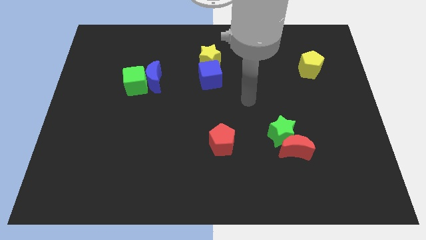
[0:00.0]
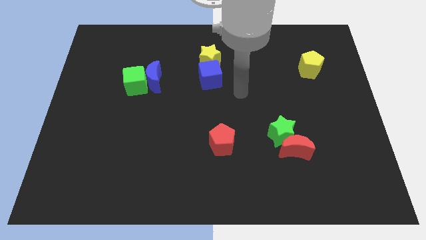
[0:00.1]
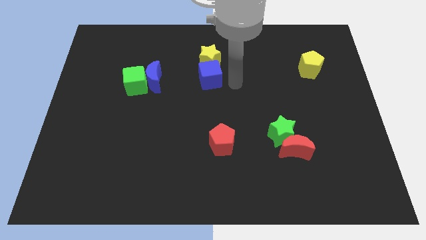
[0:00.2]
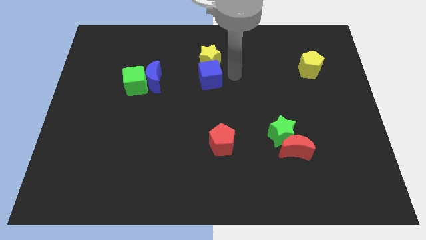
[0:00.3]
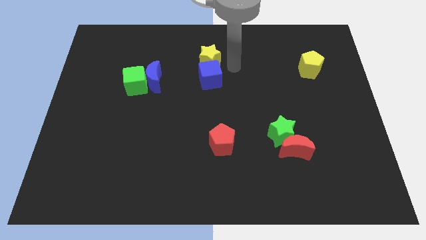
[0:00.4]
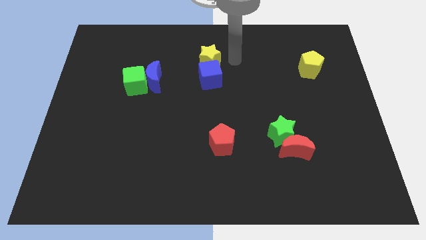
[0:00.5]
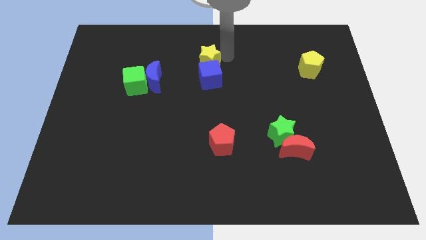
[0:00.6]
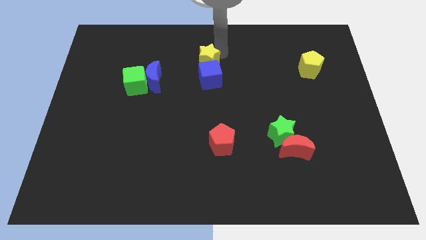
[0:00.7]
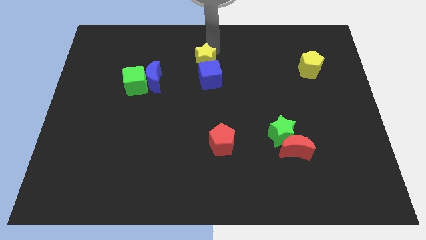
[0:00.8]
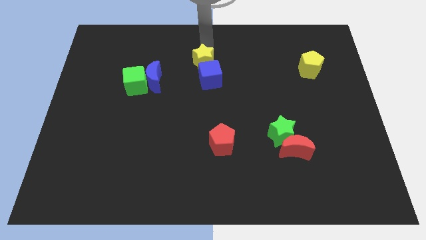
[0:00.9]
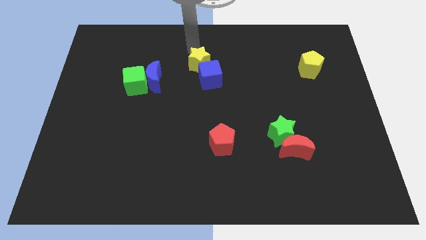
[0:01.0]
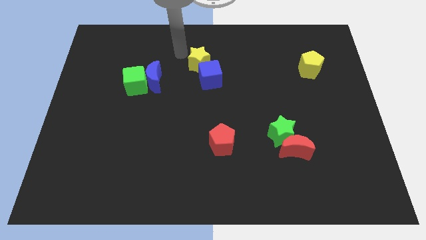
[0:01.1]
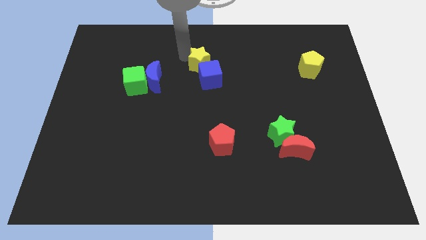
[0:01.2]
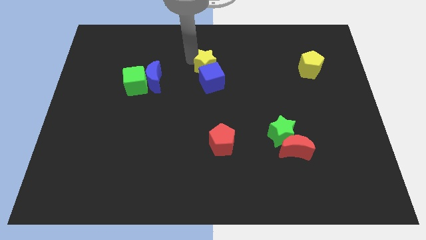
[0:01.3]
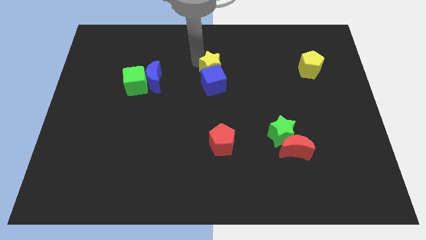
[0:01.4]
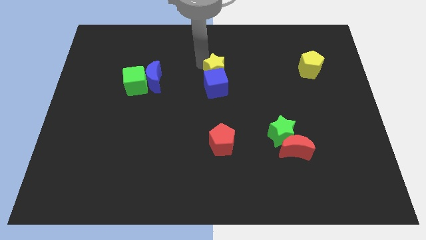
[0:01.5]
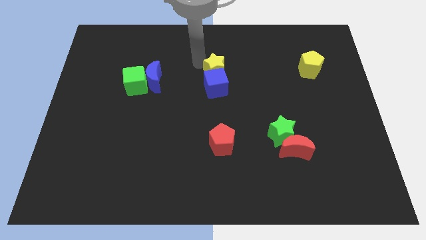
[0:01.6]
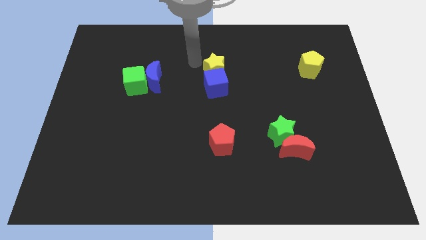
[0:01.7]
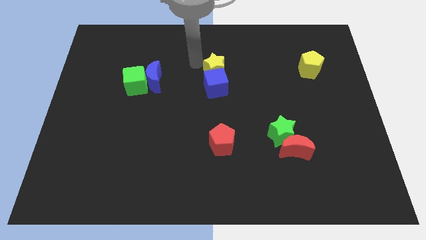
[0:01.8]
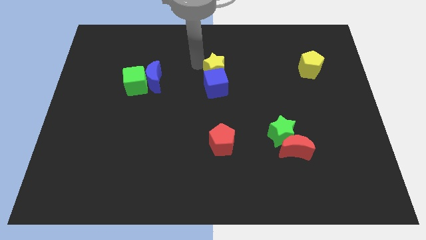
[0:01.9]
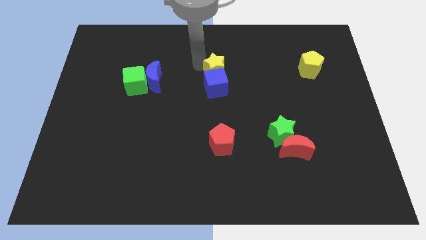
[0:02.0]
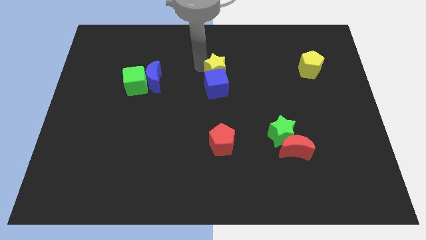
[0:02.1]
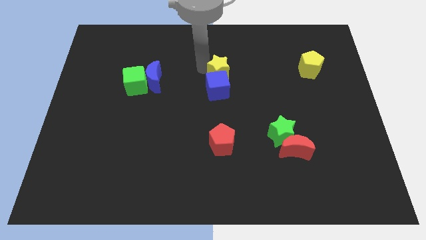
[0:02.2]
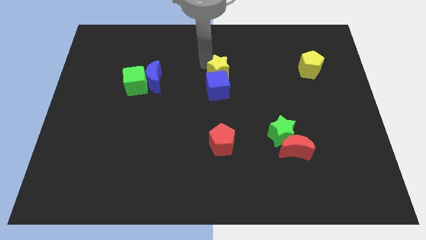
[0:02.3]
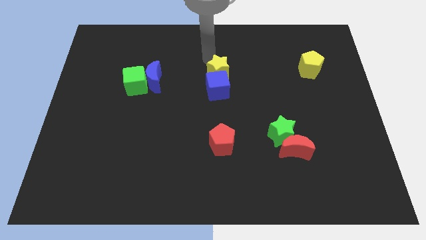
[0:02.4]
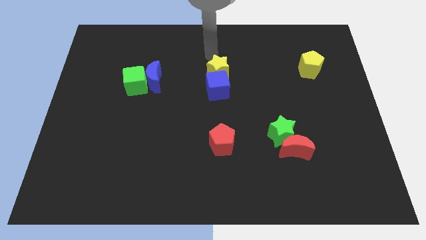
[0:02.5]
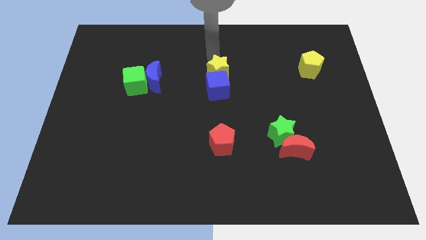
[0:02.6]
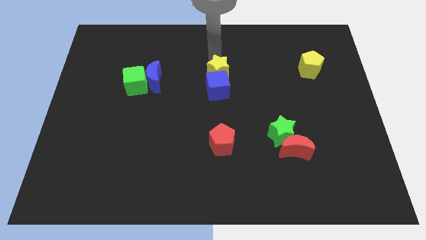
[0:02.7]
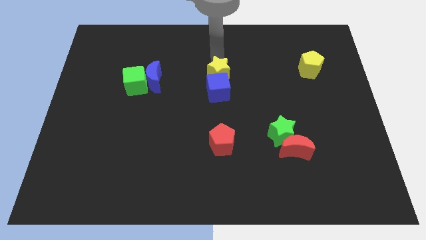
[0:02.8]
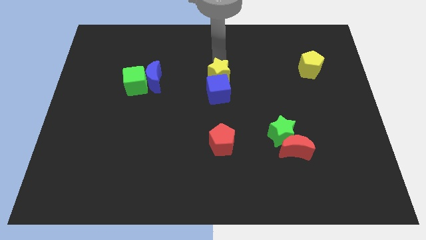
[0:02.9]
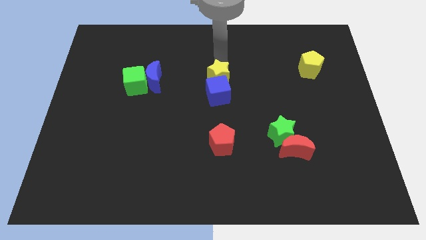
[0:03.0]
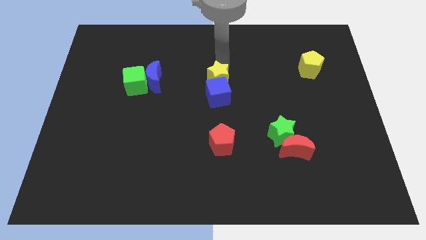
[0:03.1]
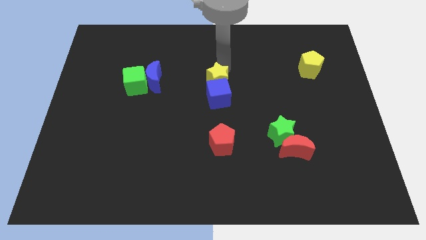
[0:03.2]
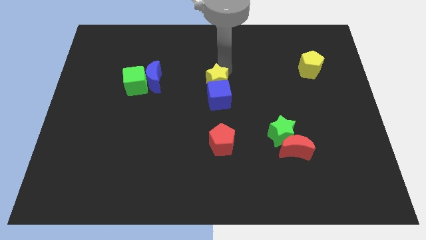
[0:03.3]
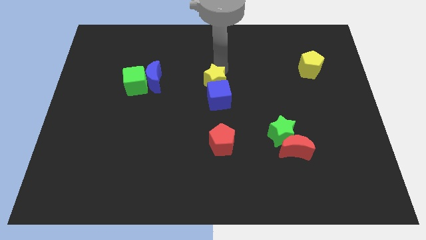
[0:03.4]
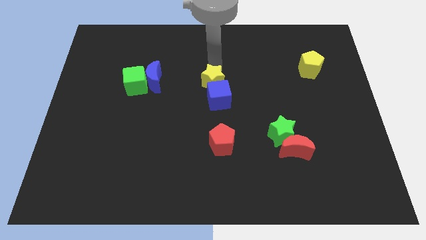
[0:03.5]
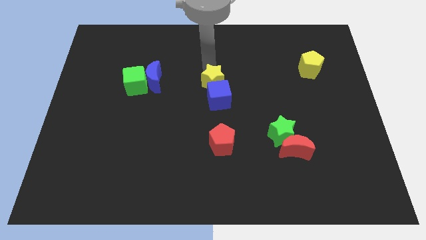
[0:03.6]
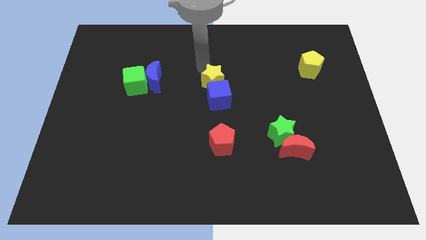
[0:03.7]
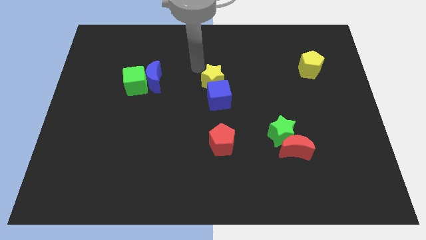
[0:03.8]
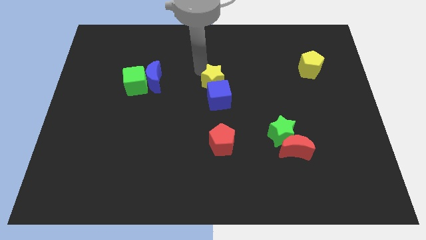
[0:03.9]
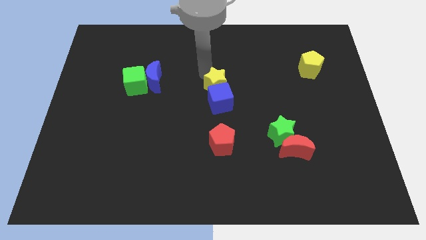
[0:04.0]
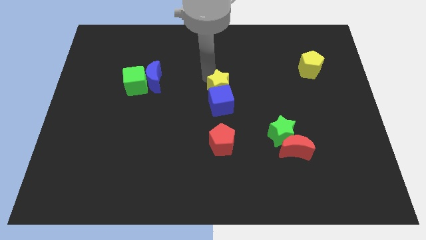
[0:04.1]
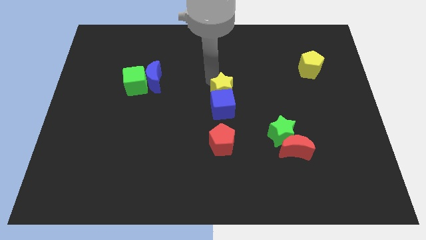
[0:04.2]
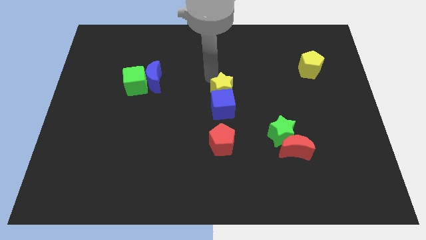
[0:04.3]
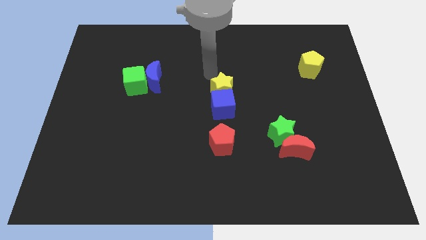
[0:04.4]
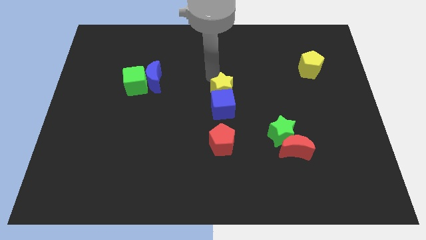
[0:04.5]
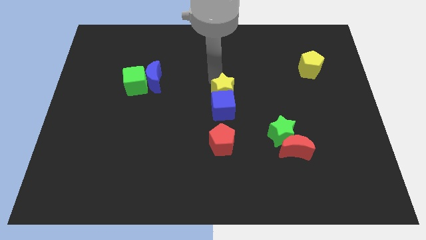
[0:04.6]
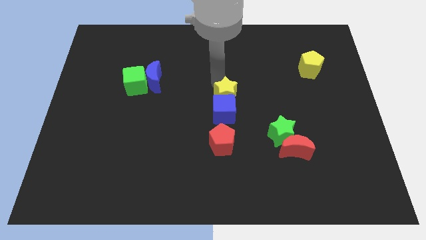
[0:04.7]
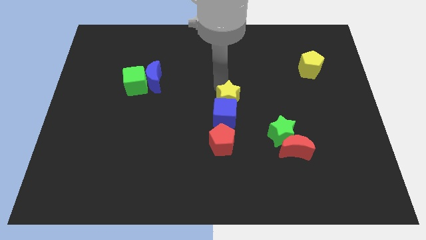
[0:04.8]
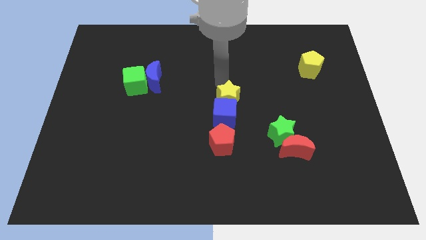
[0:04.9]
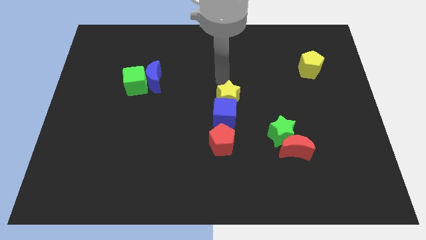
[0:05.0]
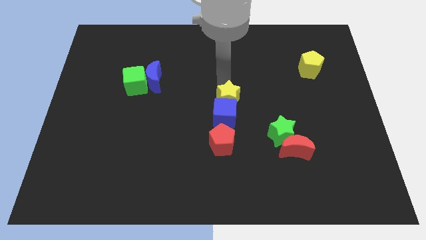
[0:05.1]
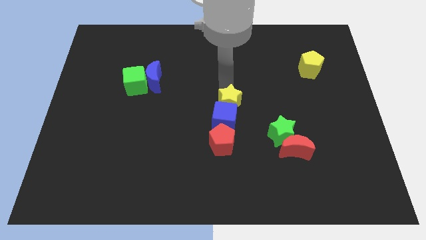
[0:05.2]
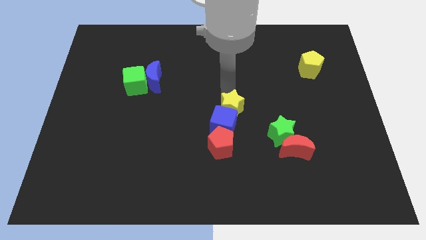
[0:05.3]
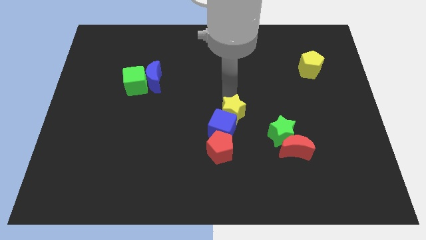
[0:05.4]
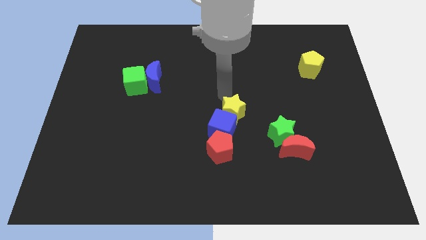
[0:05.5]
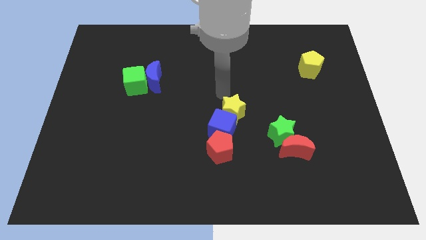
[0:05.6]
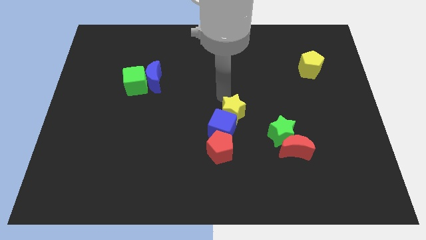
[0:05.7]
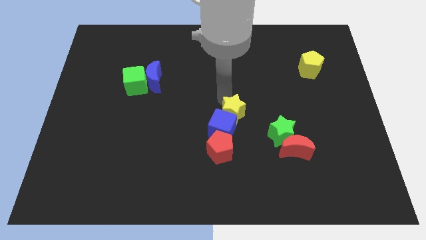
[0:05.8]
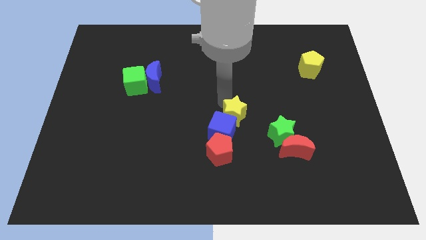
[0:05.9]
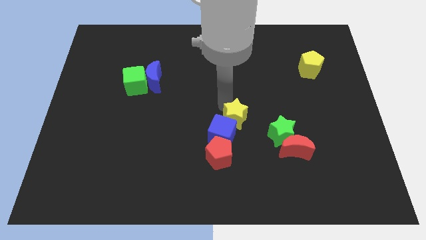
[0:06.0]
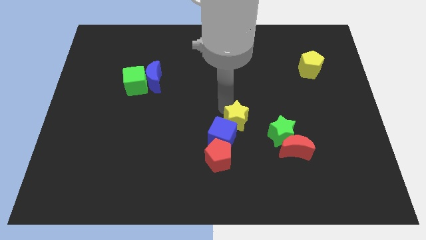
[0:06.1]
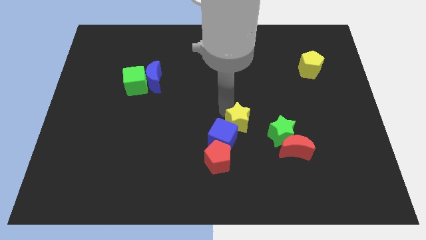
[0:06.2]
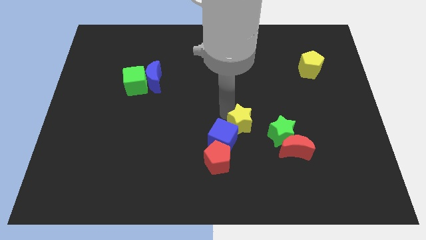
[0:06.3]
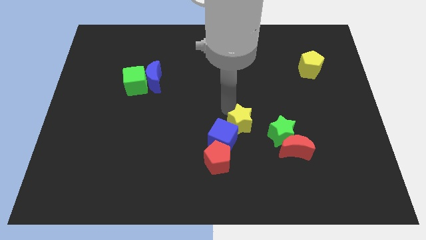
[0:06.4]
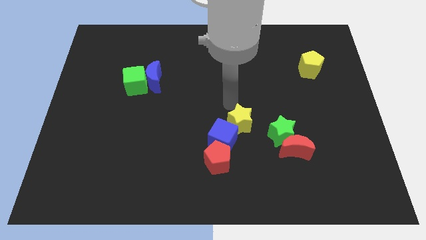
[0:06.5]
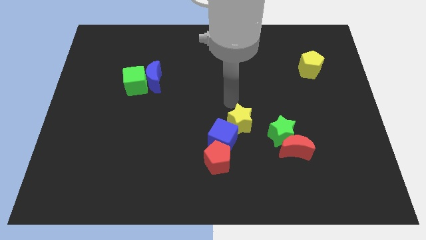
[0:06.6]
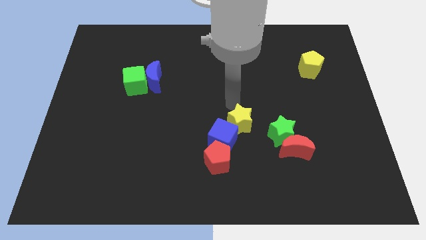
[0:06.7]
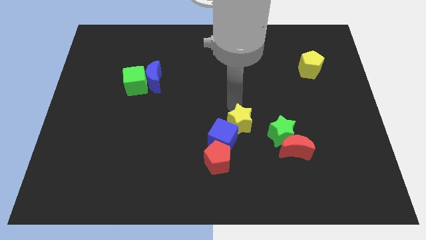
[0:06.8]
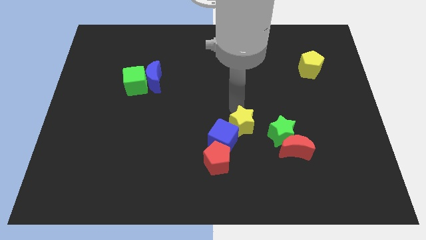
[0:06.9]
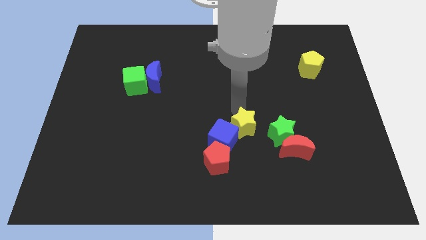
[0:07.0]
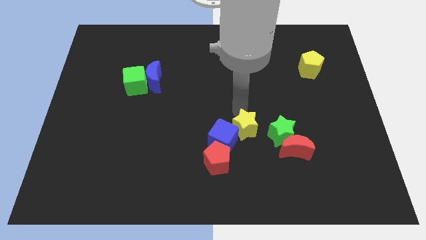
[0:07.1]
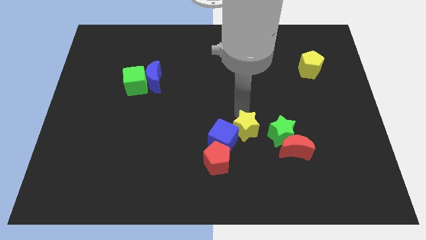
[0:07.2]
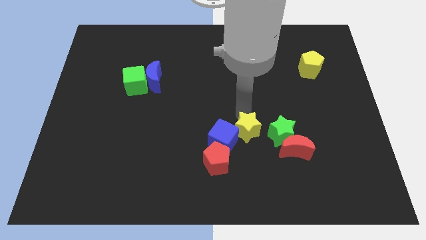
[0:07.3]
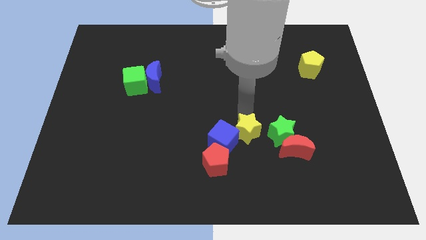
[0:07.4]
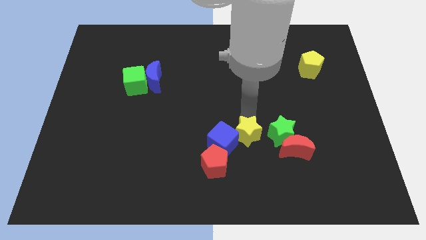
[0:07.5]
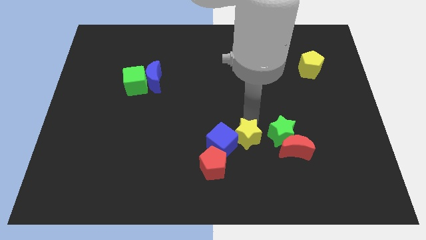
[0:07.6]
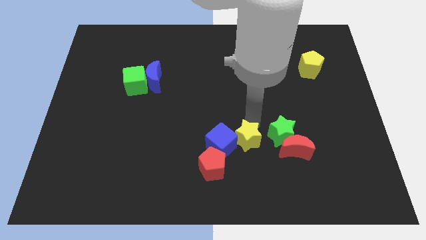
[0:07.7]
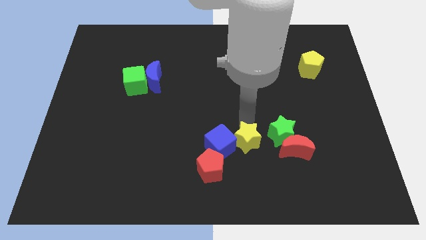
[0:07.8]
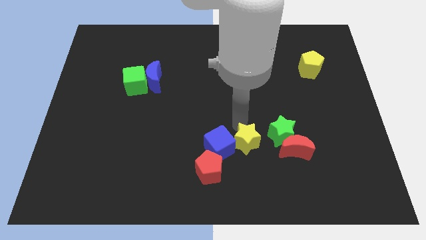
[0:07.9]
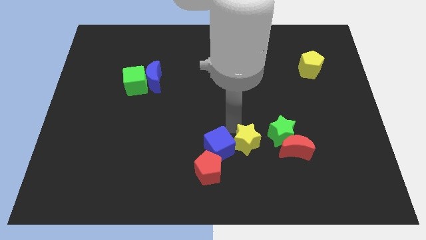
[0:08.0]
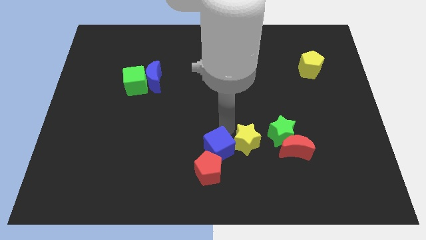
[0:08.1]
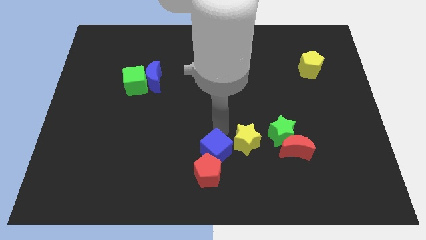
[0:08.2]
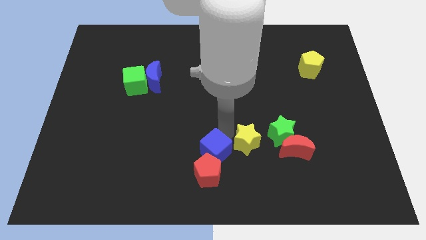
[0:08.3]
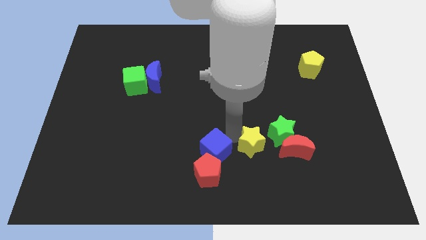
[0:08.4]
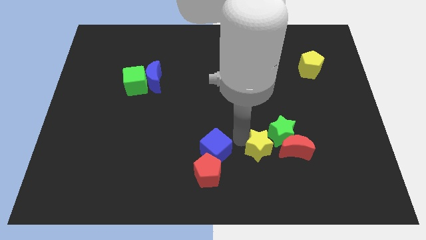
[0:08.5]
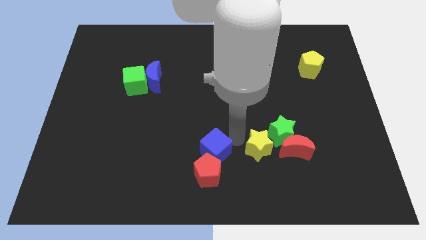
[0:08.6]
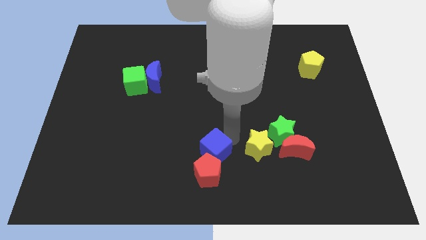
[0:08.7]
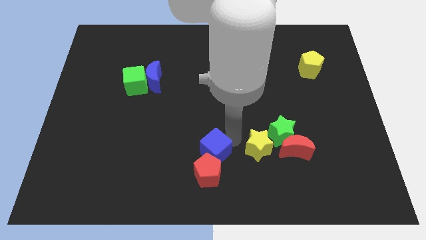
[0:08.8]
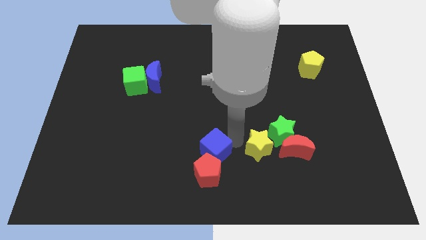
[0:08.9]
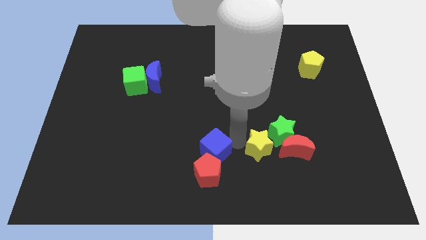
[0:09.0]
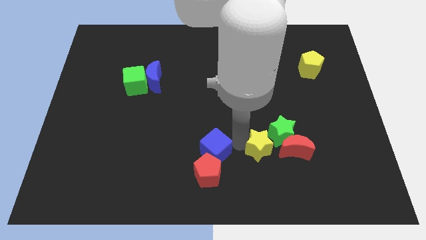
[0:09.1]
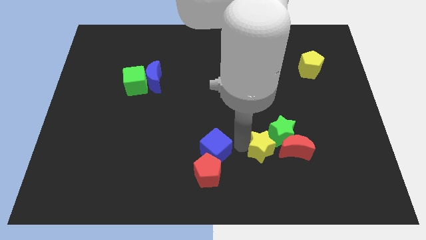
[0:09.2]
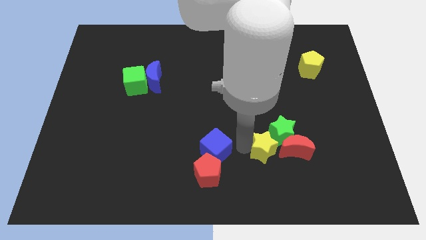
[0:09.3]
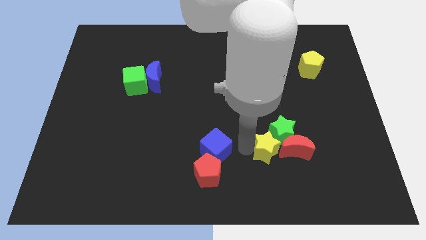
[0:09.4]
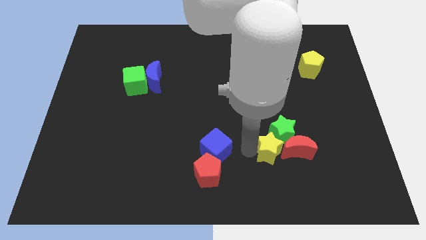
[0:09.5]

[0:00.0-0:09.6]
slide the yellow star towards the red moon
